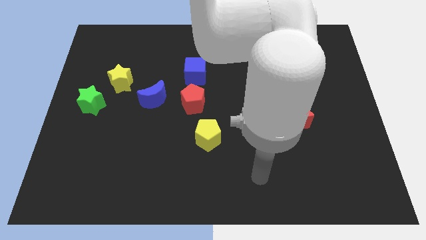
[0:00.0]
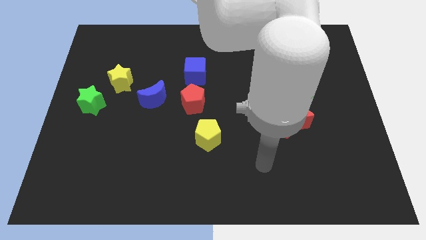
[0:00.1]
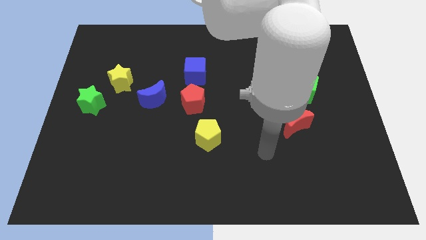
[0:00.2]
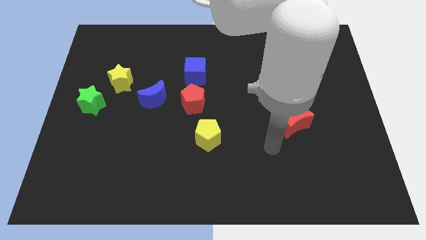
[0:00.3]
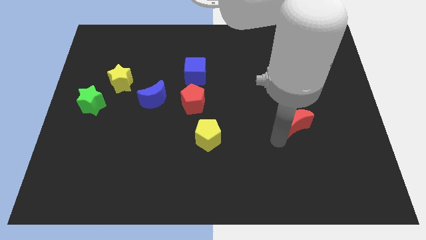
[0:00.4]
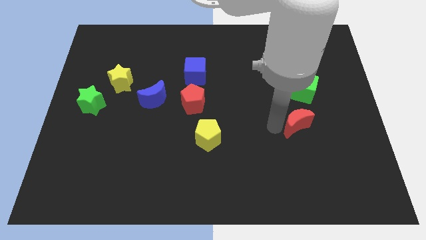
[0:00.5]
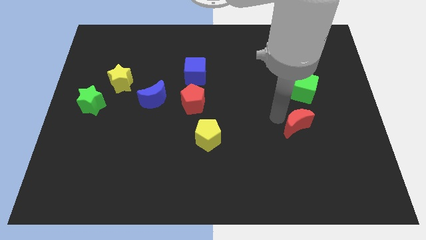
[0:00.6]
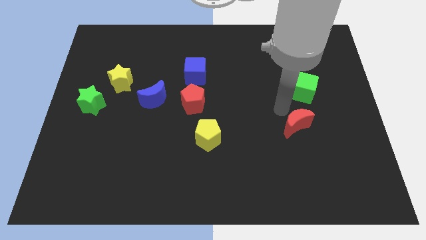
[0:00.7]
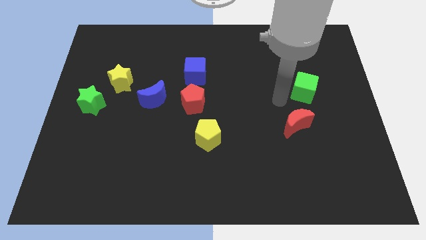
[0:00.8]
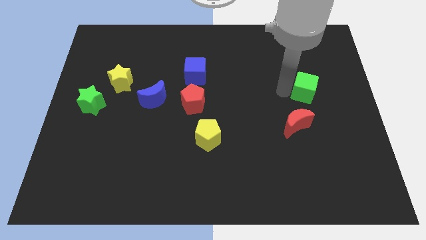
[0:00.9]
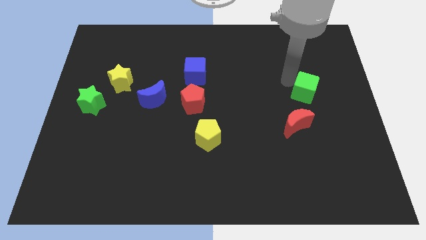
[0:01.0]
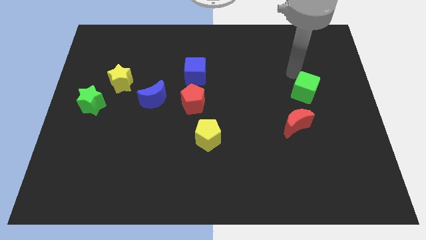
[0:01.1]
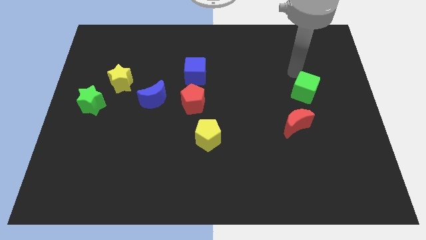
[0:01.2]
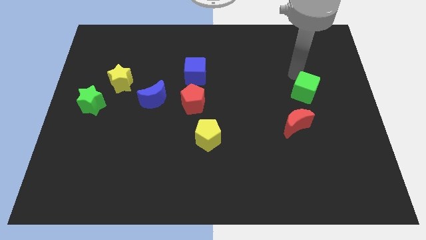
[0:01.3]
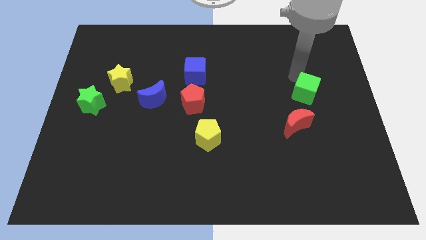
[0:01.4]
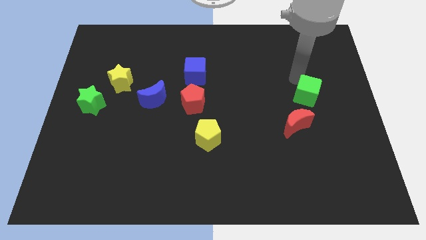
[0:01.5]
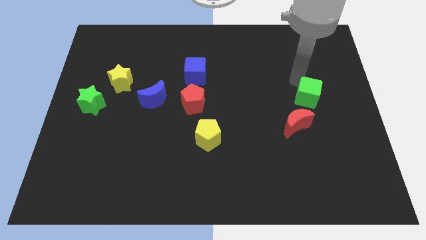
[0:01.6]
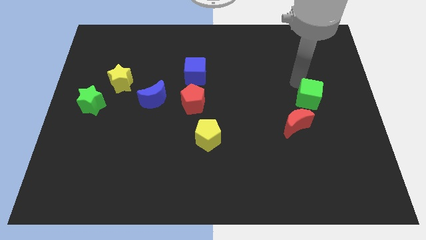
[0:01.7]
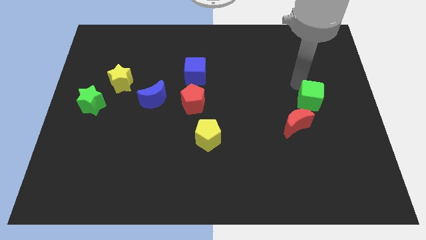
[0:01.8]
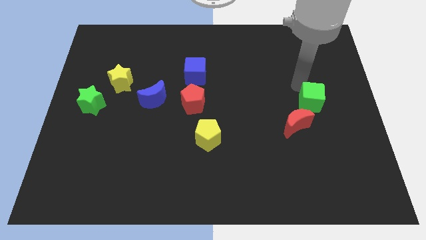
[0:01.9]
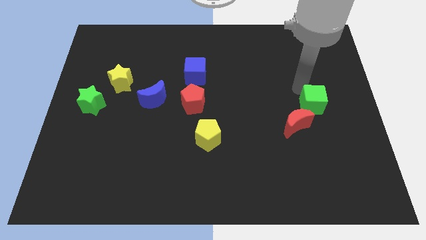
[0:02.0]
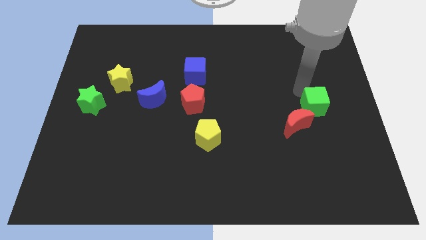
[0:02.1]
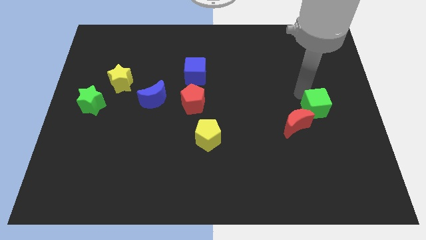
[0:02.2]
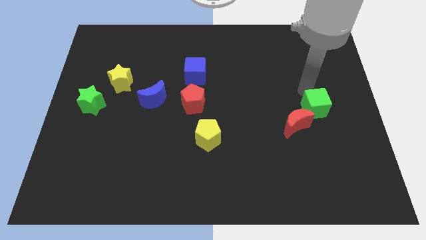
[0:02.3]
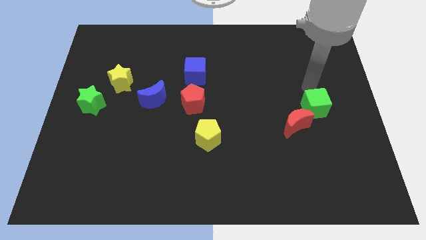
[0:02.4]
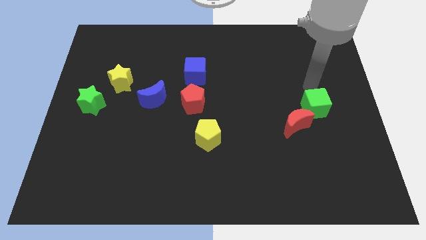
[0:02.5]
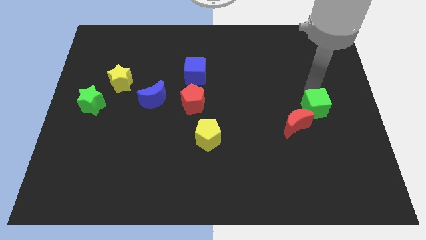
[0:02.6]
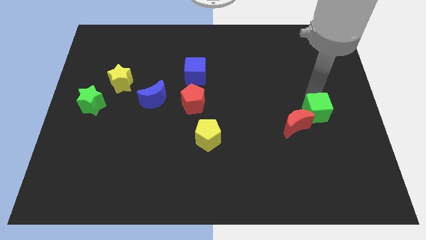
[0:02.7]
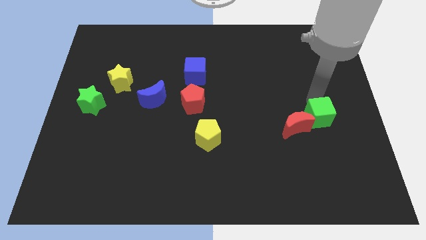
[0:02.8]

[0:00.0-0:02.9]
move the green cube down slightly

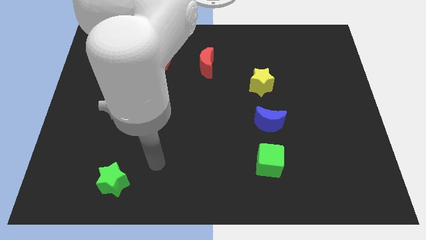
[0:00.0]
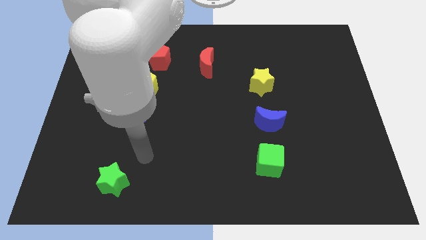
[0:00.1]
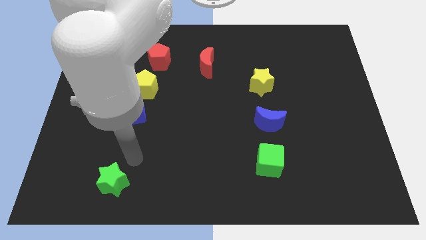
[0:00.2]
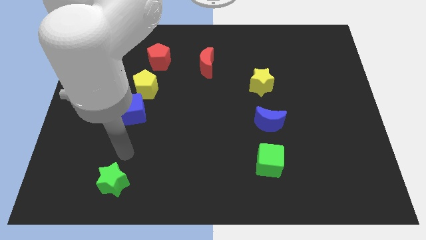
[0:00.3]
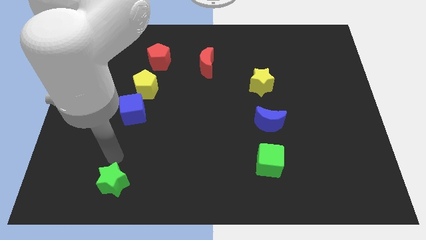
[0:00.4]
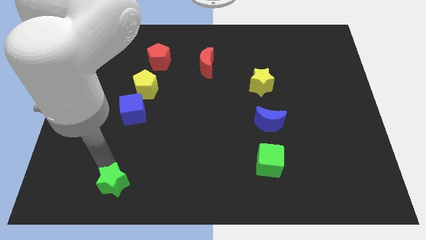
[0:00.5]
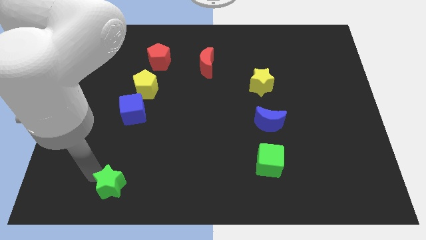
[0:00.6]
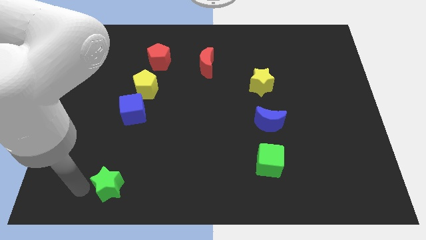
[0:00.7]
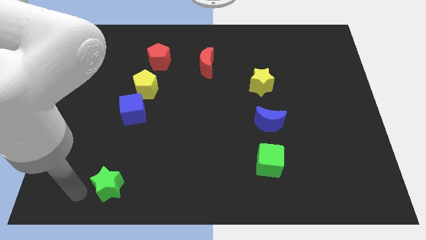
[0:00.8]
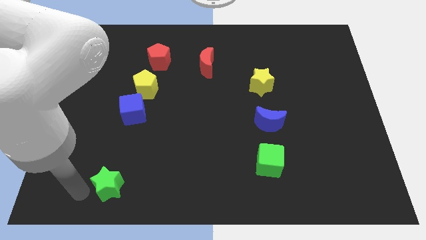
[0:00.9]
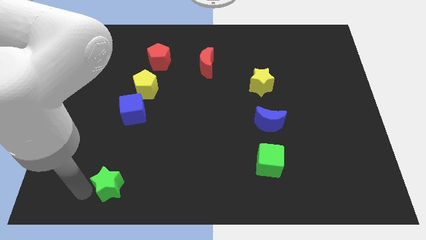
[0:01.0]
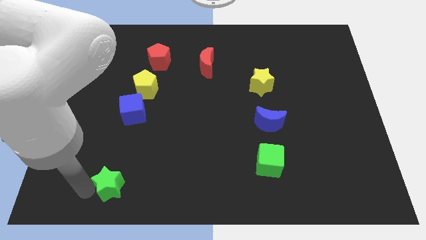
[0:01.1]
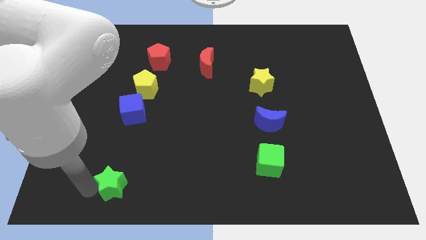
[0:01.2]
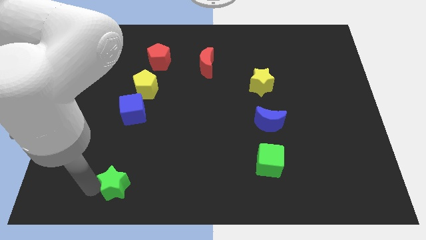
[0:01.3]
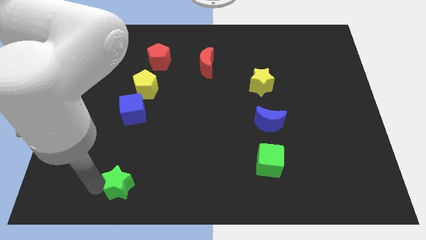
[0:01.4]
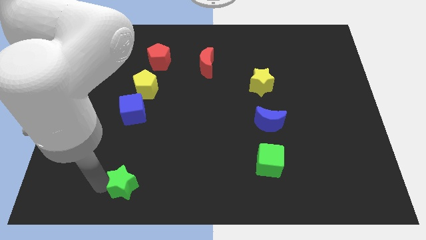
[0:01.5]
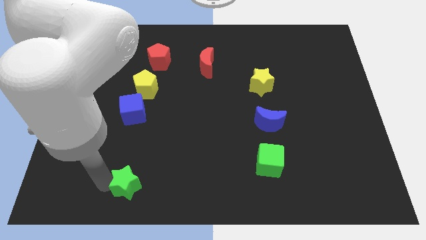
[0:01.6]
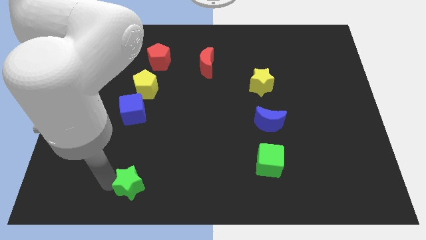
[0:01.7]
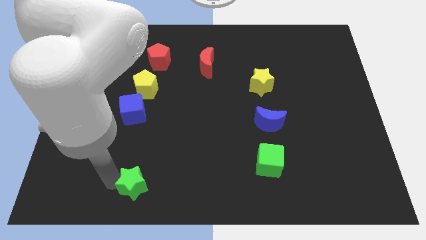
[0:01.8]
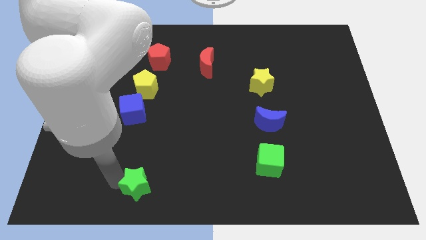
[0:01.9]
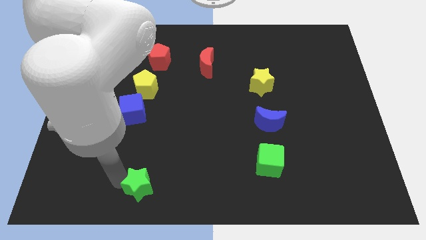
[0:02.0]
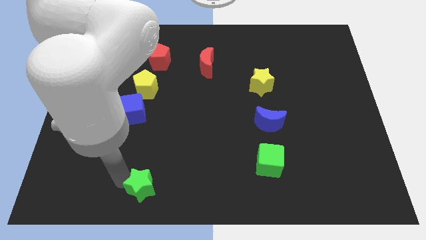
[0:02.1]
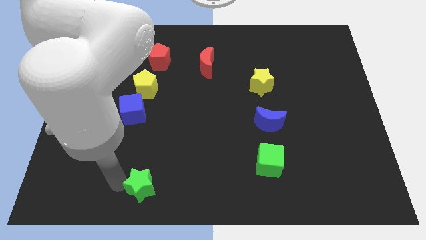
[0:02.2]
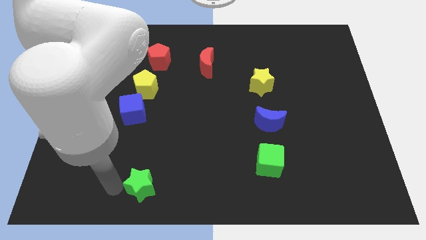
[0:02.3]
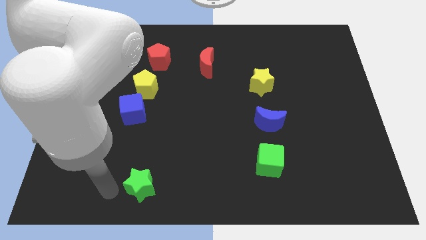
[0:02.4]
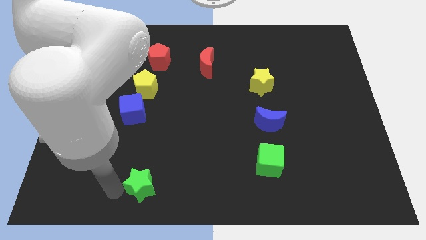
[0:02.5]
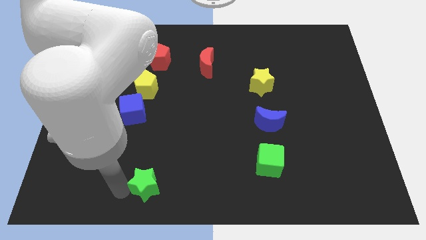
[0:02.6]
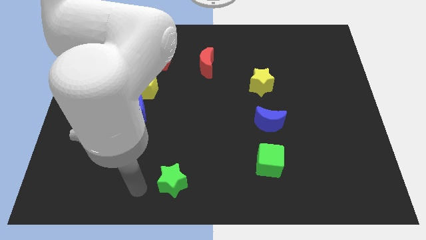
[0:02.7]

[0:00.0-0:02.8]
move the green star to the right a bit

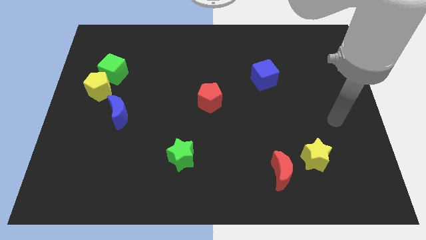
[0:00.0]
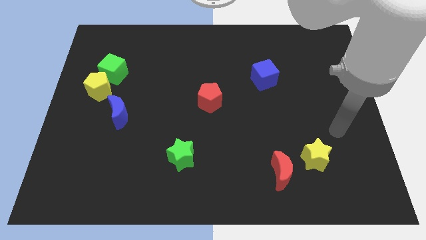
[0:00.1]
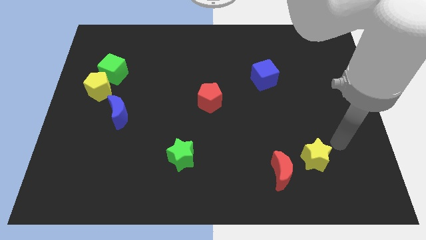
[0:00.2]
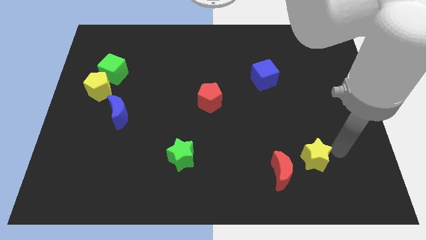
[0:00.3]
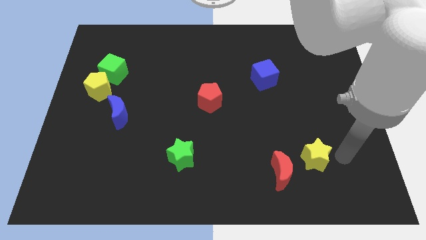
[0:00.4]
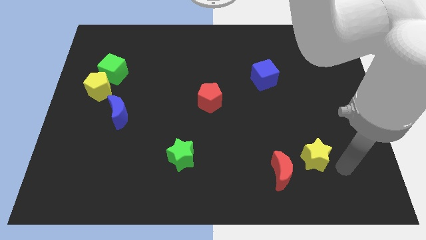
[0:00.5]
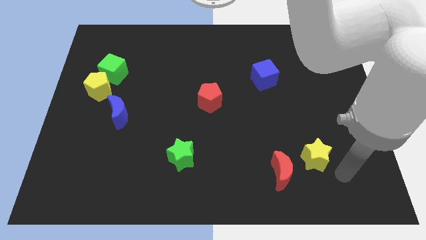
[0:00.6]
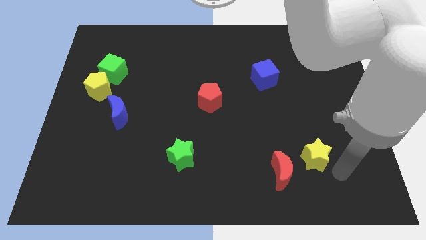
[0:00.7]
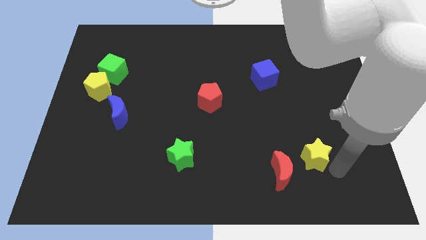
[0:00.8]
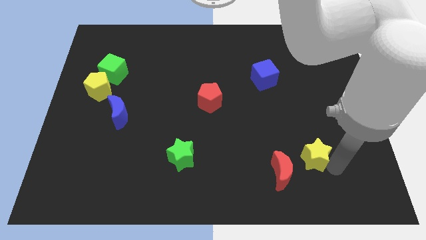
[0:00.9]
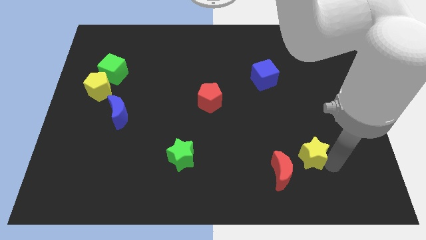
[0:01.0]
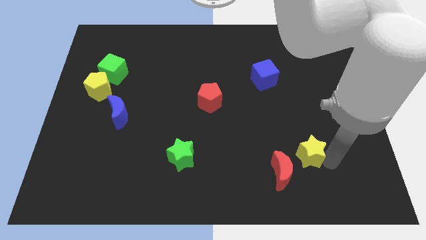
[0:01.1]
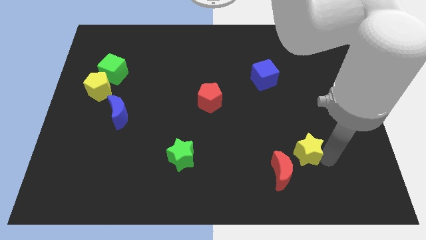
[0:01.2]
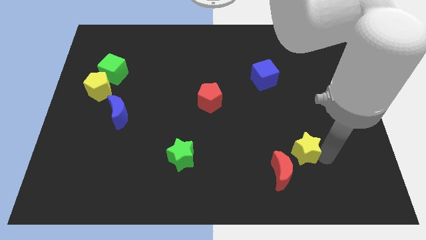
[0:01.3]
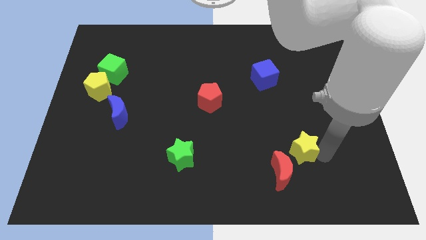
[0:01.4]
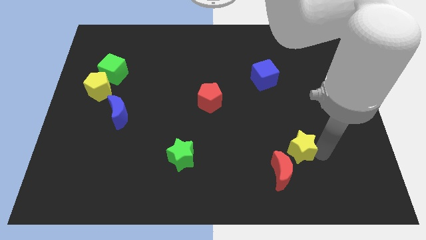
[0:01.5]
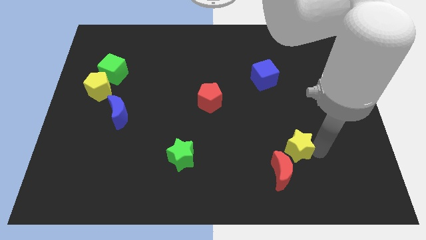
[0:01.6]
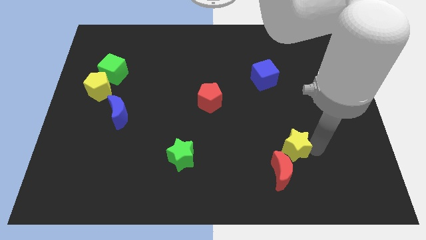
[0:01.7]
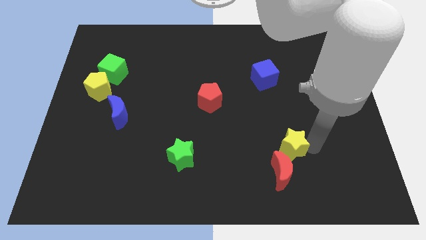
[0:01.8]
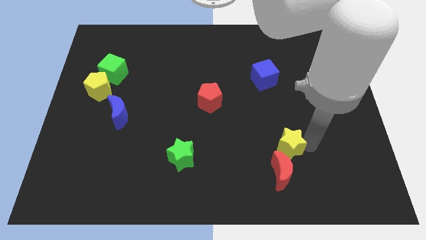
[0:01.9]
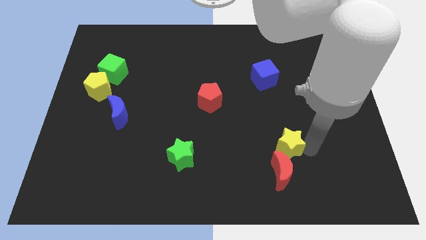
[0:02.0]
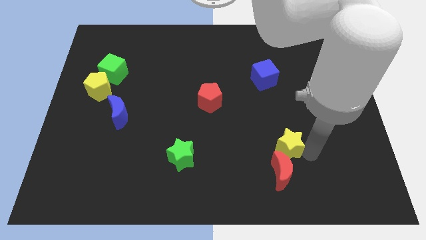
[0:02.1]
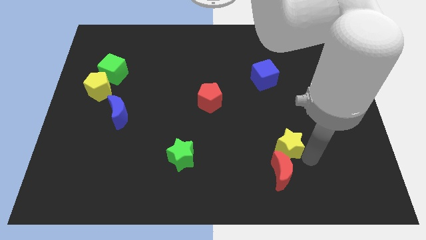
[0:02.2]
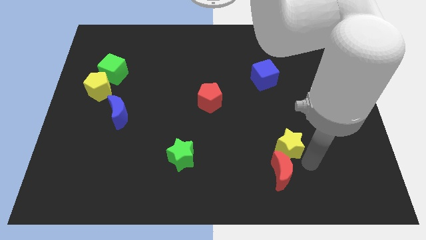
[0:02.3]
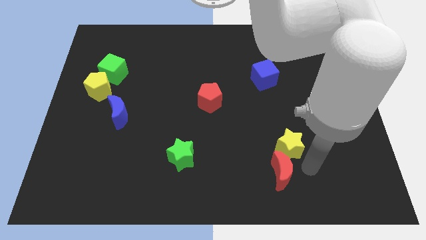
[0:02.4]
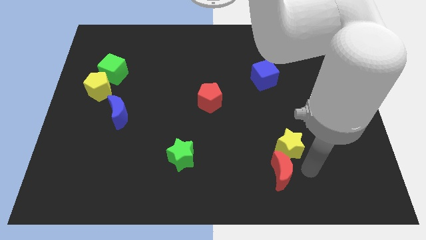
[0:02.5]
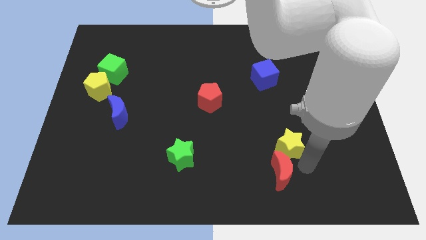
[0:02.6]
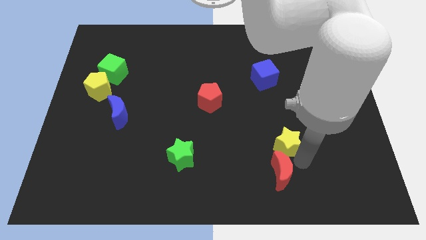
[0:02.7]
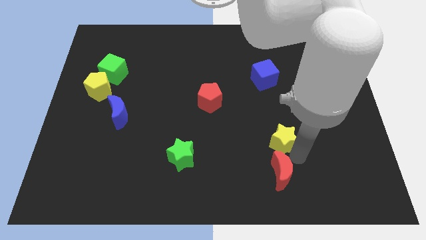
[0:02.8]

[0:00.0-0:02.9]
move the yellow star a little up and then left
